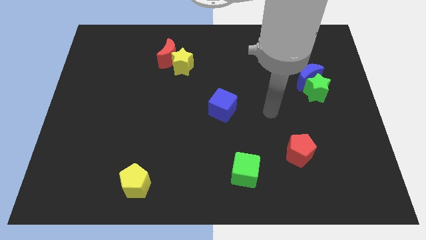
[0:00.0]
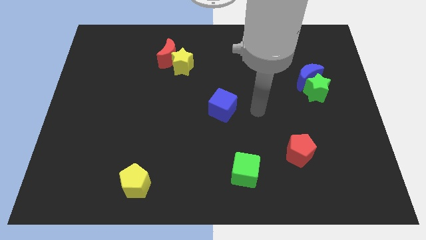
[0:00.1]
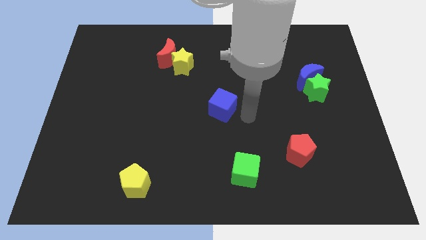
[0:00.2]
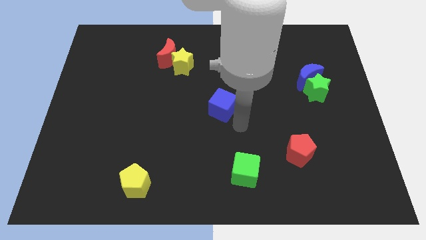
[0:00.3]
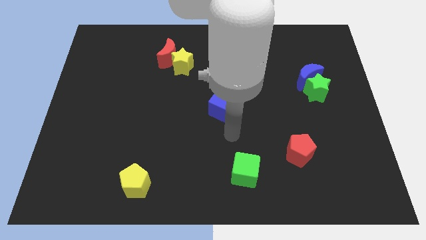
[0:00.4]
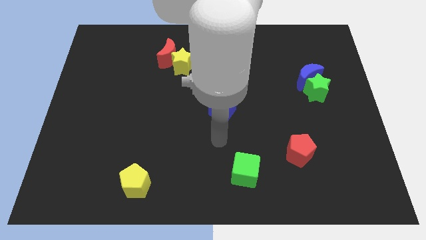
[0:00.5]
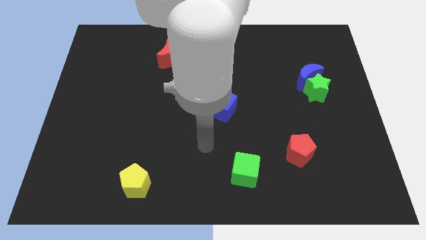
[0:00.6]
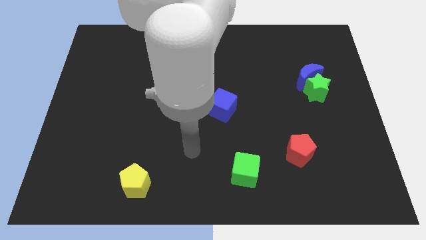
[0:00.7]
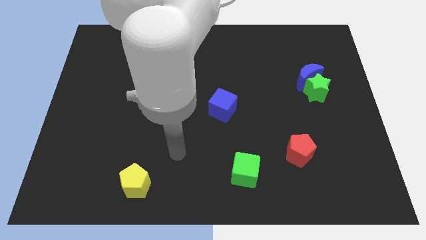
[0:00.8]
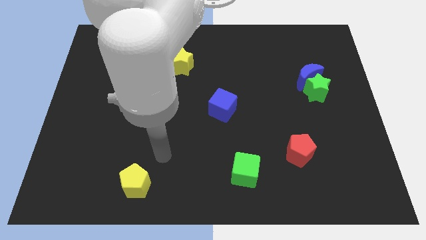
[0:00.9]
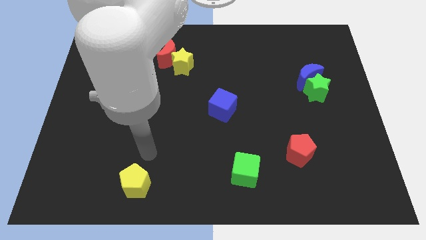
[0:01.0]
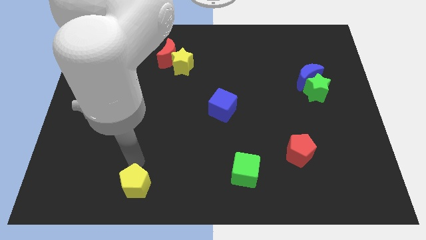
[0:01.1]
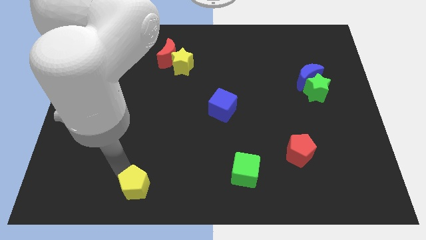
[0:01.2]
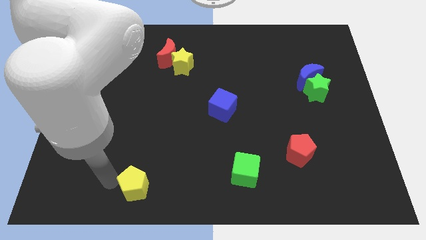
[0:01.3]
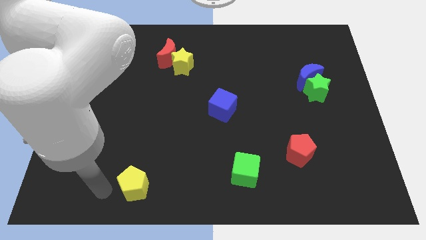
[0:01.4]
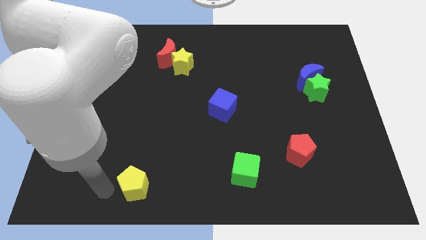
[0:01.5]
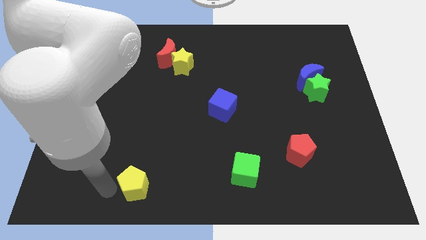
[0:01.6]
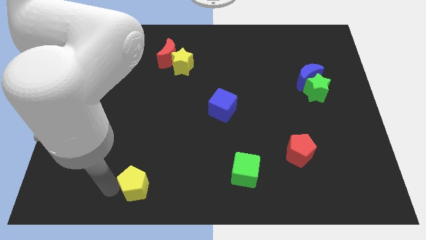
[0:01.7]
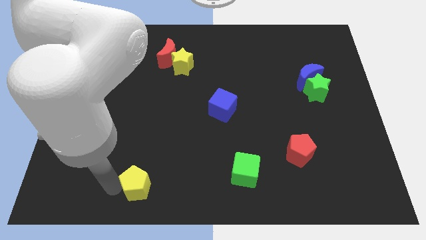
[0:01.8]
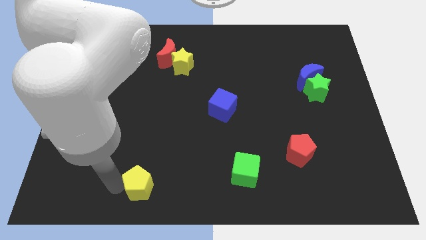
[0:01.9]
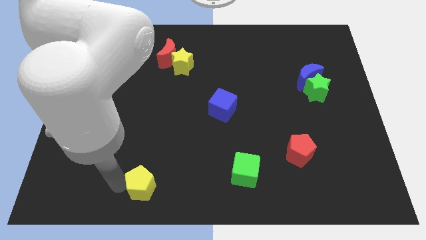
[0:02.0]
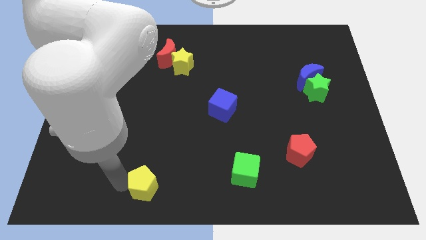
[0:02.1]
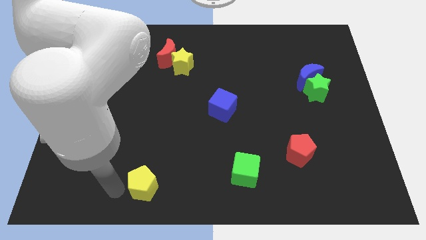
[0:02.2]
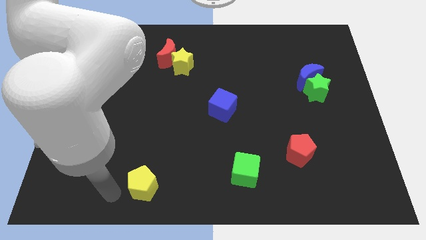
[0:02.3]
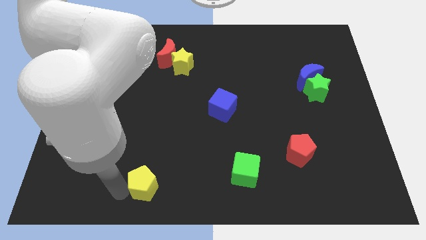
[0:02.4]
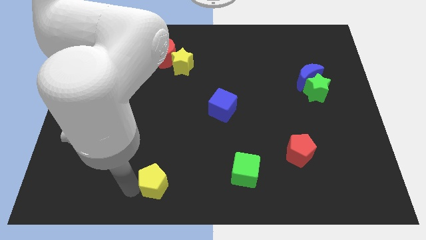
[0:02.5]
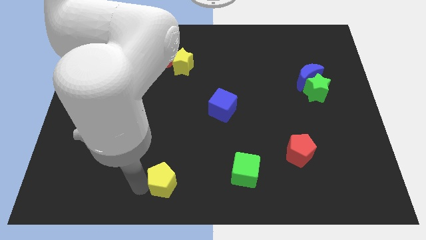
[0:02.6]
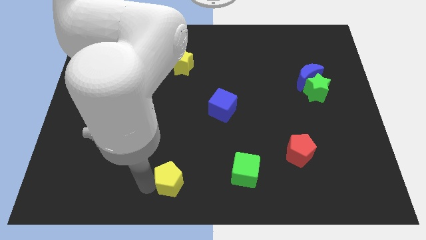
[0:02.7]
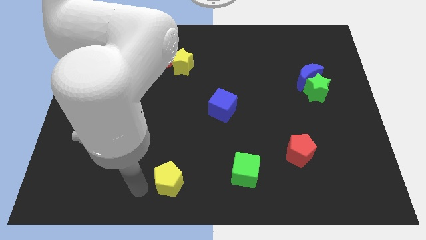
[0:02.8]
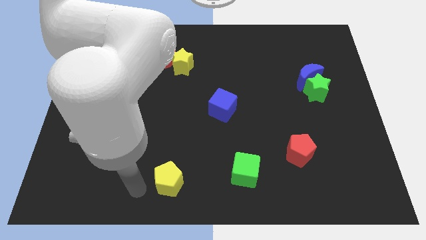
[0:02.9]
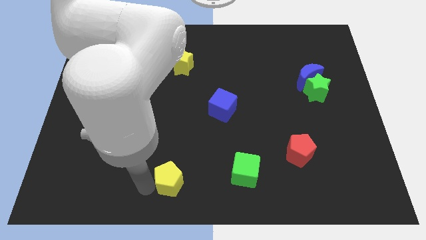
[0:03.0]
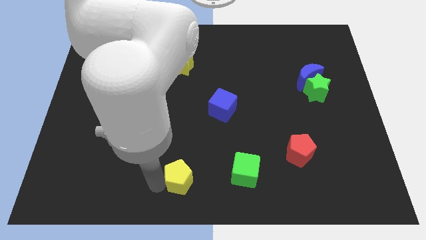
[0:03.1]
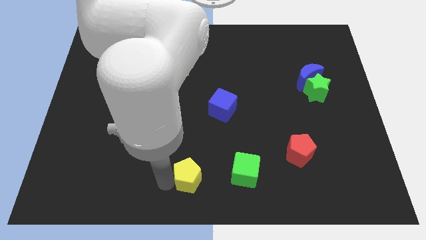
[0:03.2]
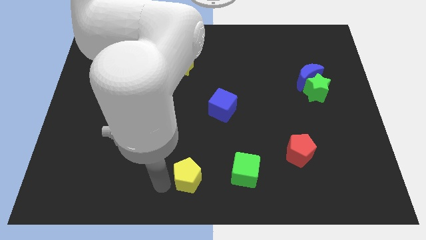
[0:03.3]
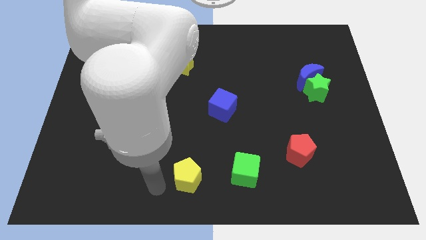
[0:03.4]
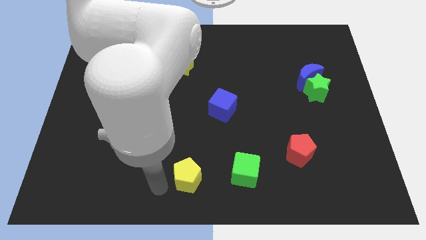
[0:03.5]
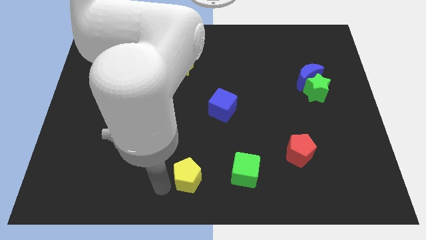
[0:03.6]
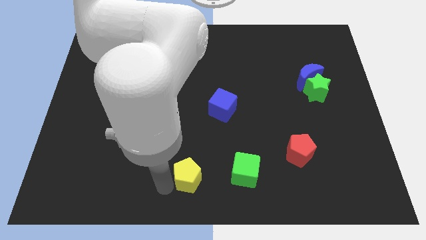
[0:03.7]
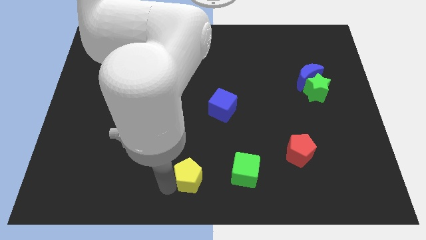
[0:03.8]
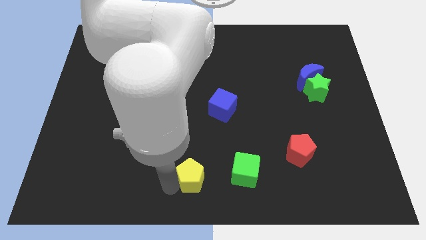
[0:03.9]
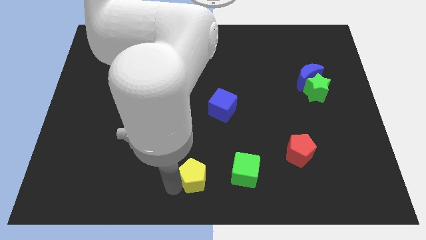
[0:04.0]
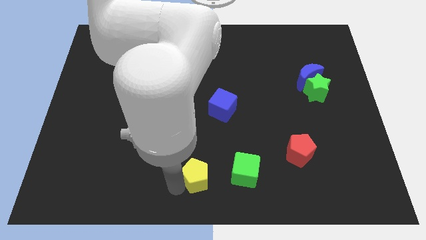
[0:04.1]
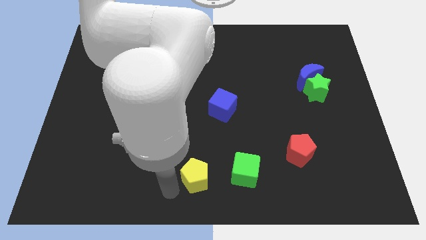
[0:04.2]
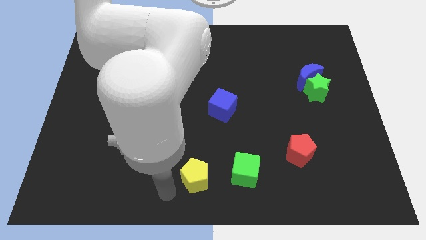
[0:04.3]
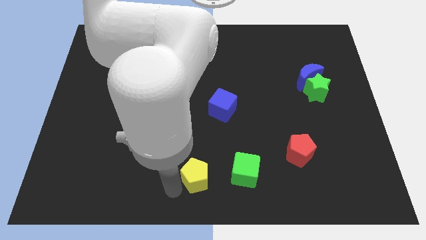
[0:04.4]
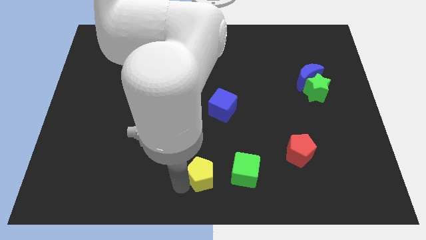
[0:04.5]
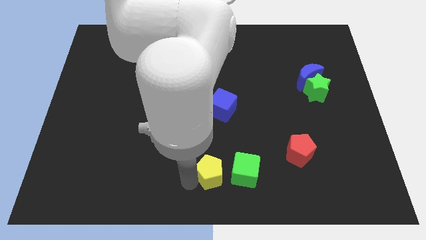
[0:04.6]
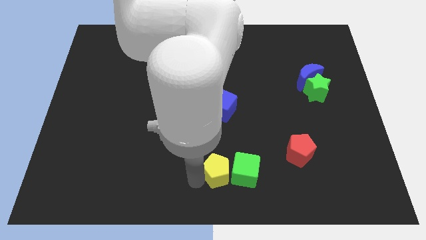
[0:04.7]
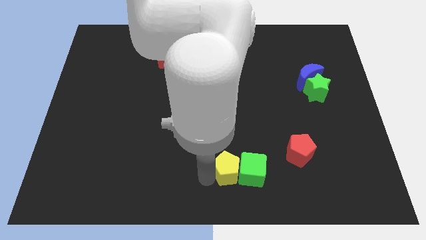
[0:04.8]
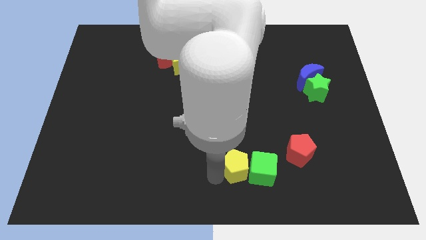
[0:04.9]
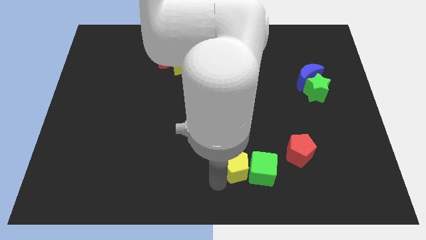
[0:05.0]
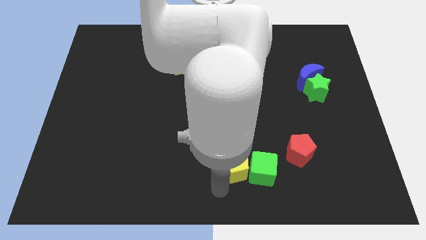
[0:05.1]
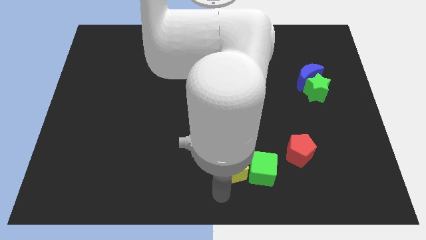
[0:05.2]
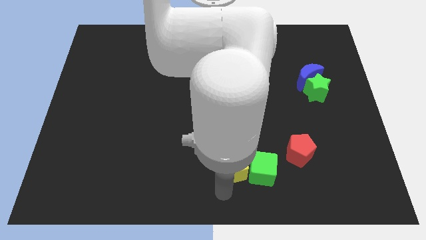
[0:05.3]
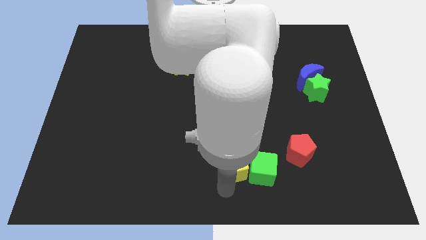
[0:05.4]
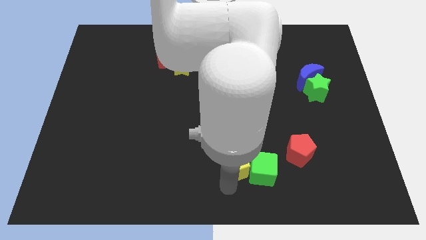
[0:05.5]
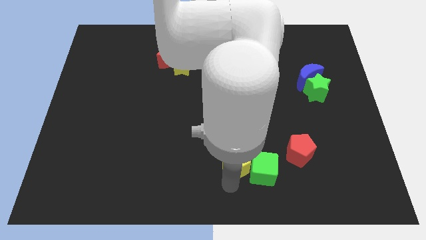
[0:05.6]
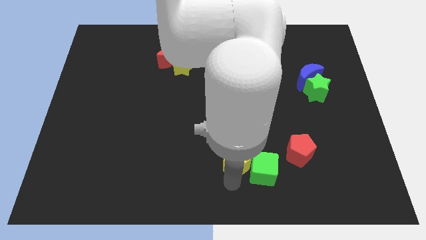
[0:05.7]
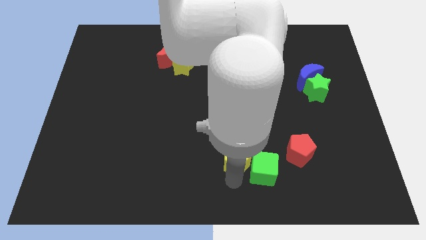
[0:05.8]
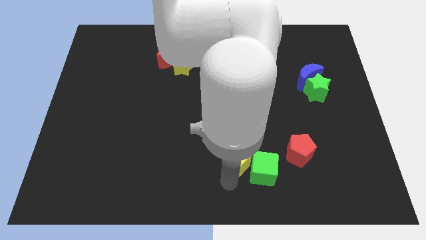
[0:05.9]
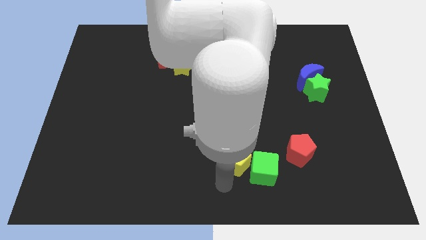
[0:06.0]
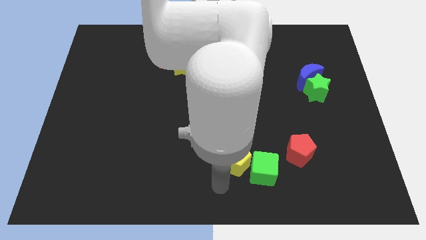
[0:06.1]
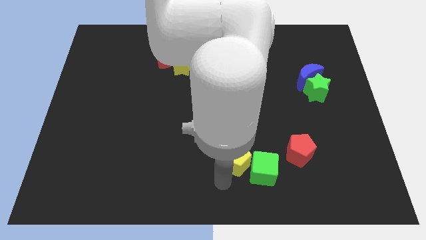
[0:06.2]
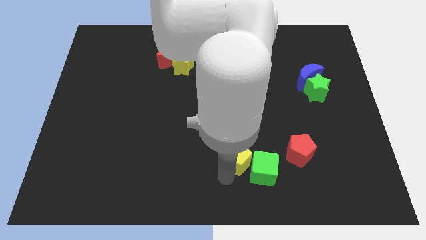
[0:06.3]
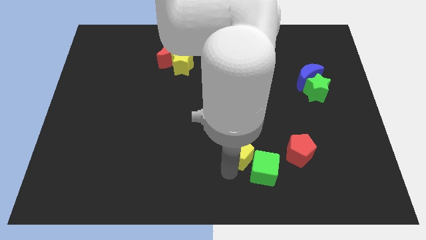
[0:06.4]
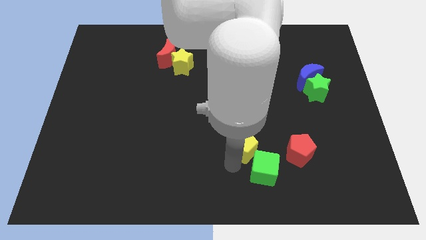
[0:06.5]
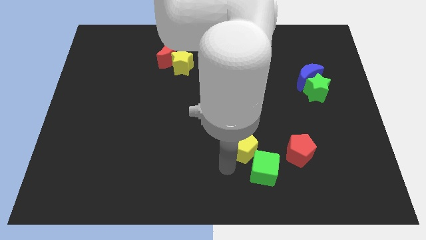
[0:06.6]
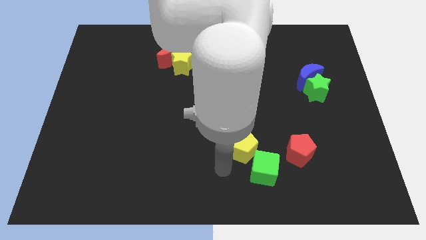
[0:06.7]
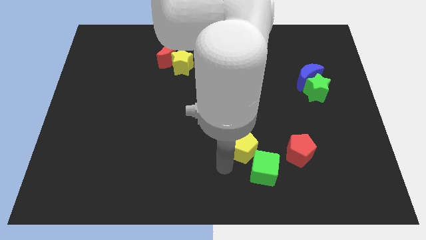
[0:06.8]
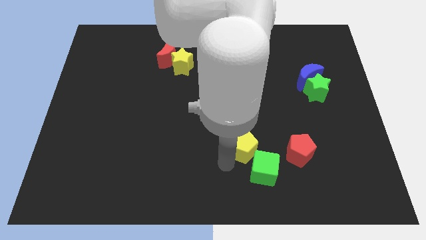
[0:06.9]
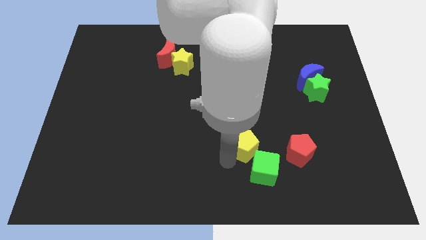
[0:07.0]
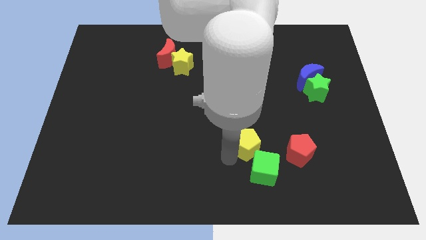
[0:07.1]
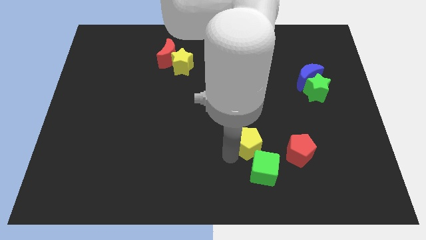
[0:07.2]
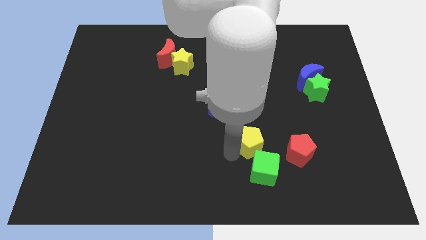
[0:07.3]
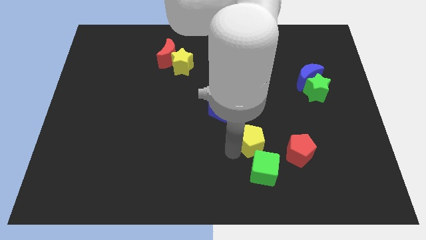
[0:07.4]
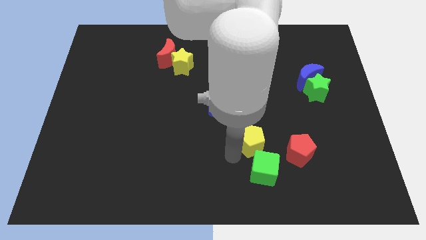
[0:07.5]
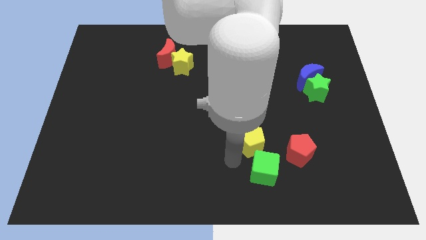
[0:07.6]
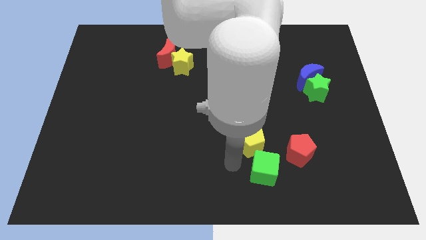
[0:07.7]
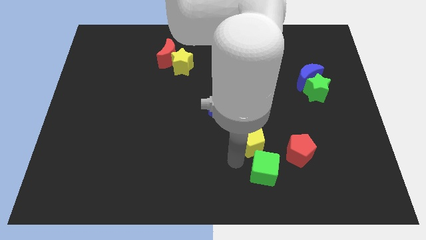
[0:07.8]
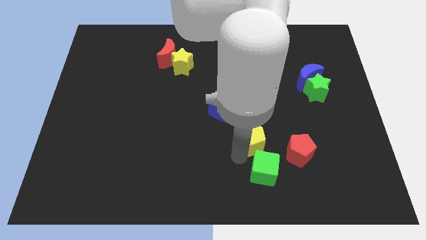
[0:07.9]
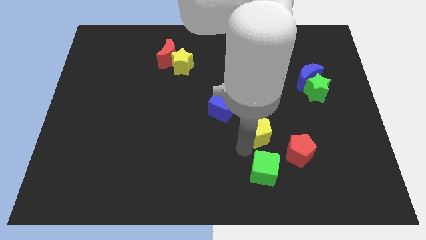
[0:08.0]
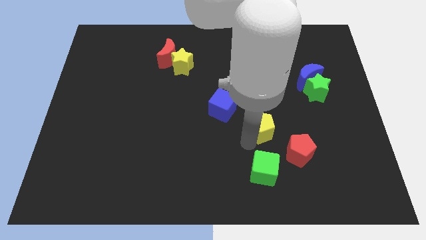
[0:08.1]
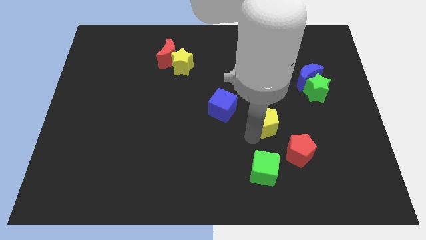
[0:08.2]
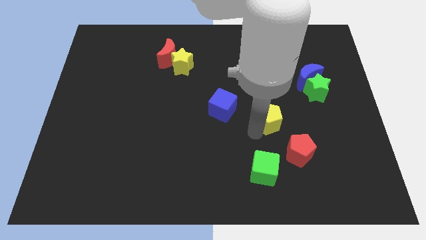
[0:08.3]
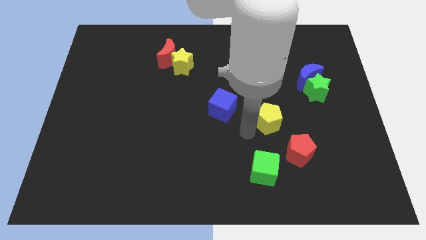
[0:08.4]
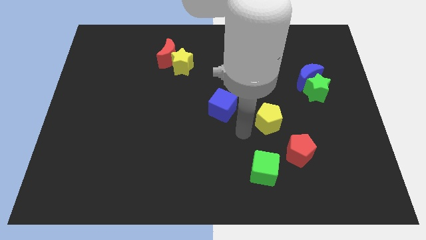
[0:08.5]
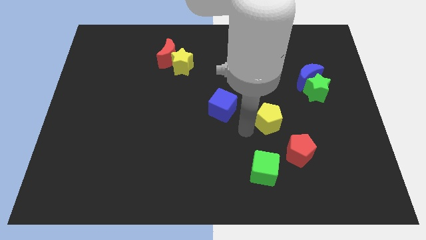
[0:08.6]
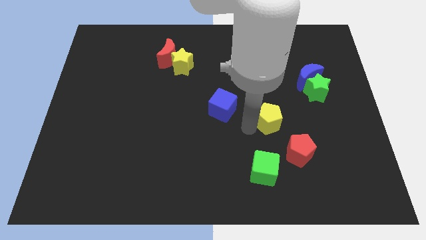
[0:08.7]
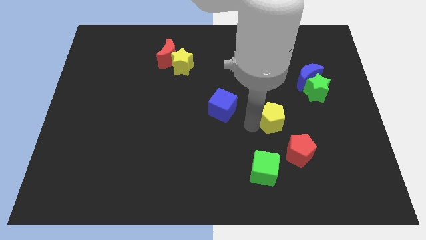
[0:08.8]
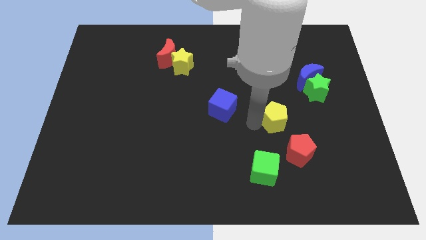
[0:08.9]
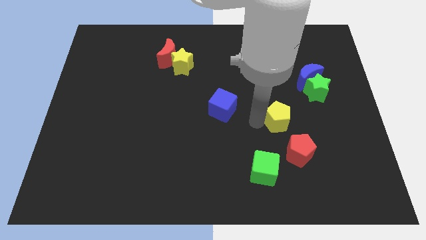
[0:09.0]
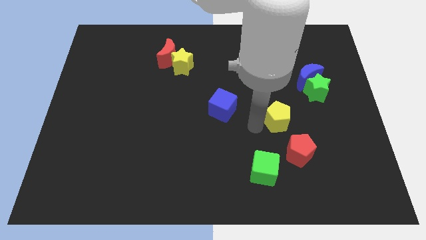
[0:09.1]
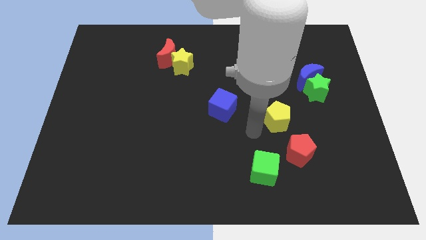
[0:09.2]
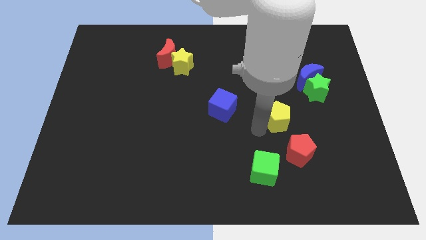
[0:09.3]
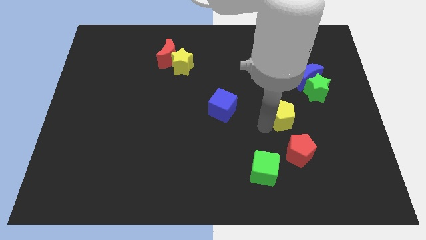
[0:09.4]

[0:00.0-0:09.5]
slide the yellow pentagon diagonally down and to the left of the green star
